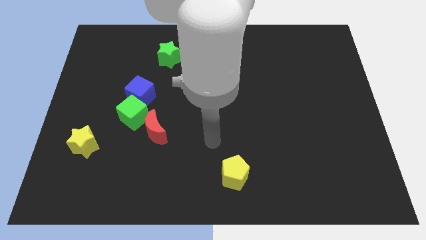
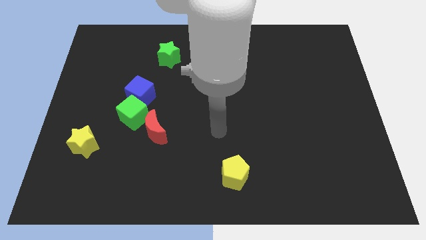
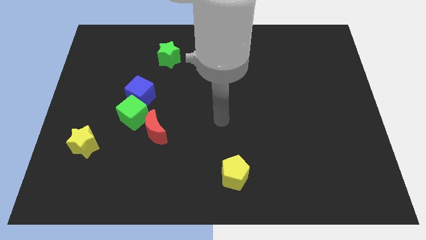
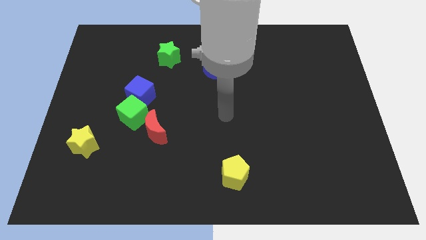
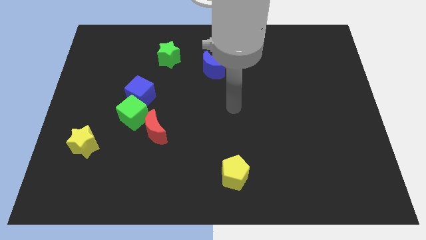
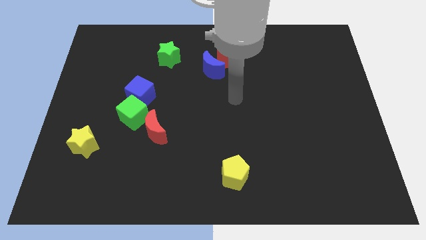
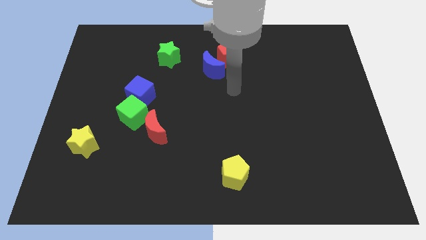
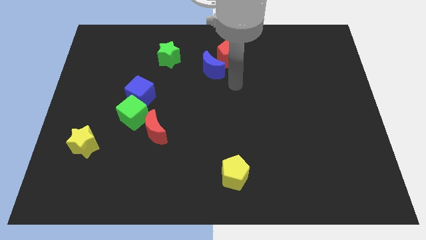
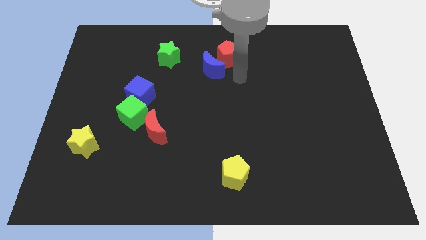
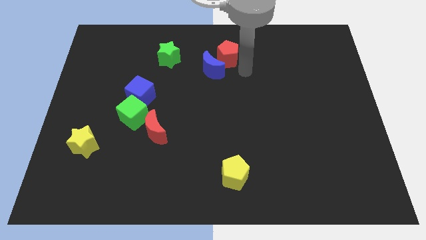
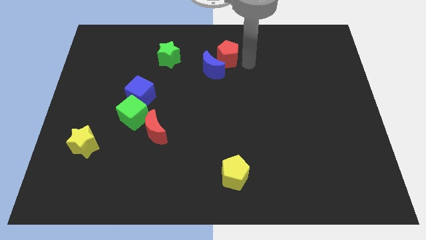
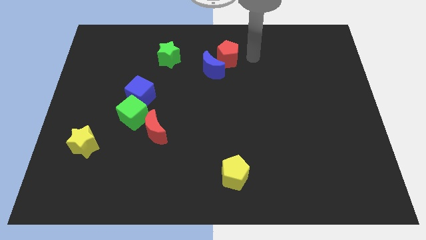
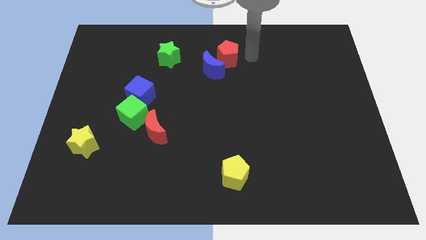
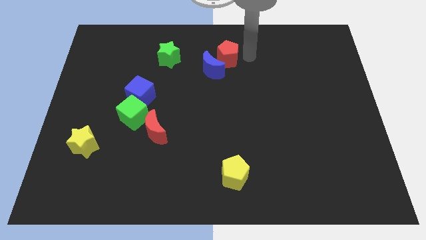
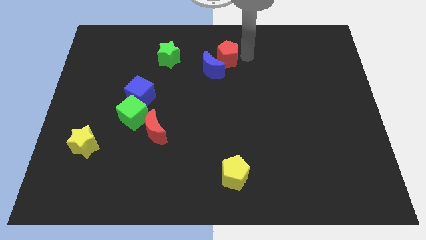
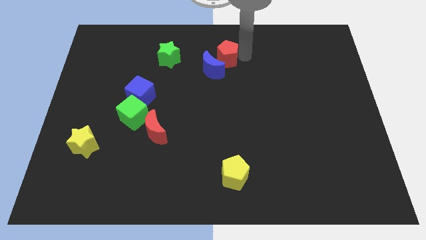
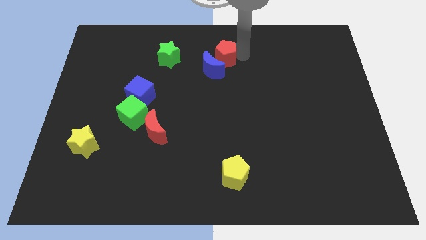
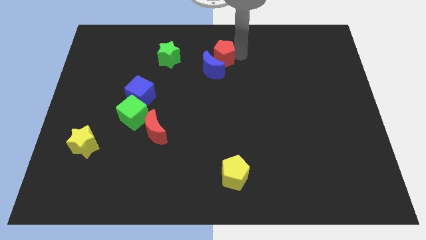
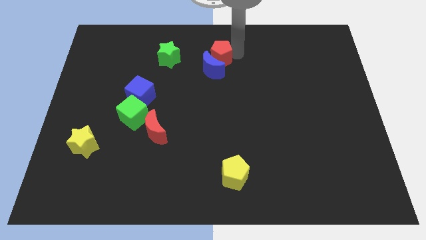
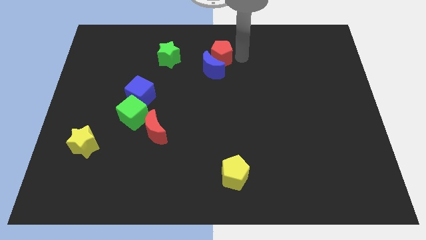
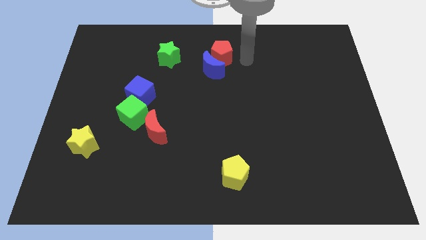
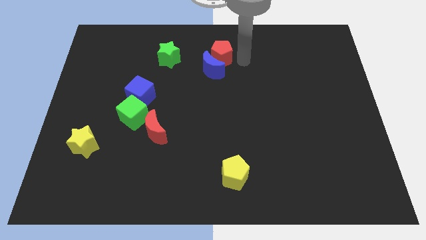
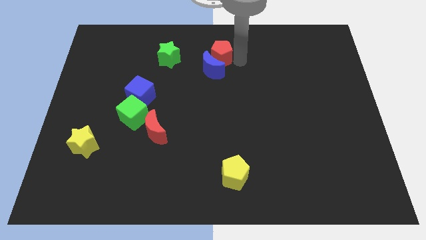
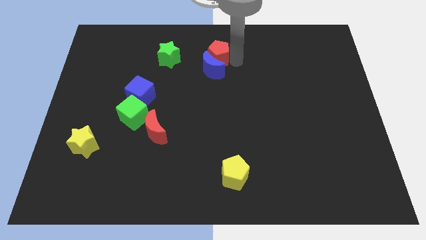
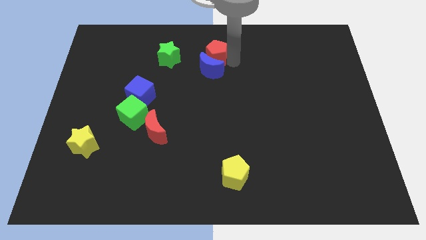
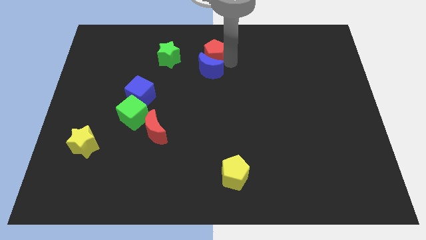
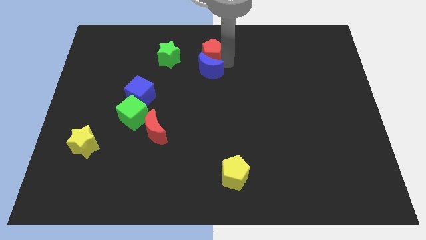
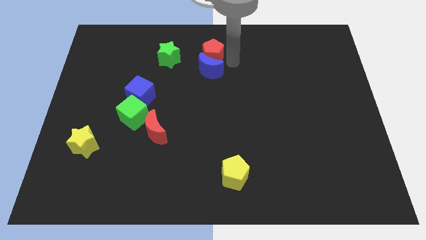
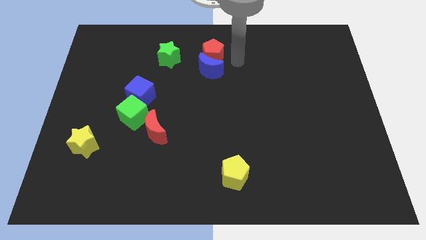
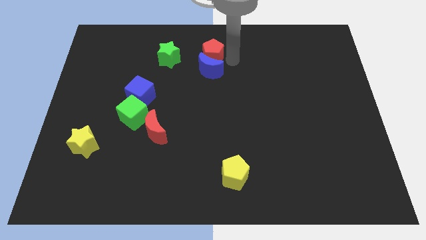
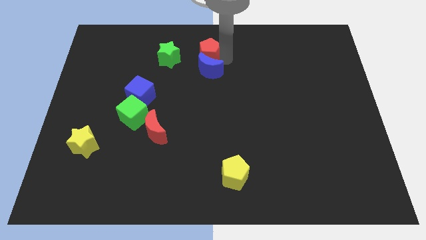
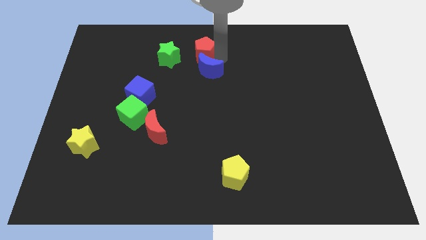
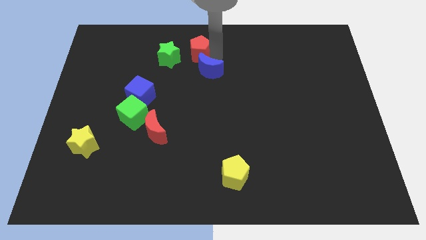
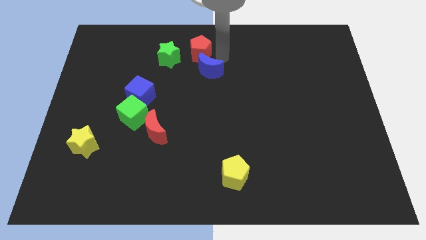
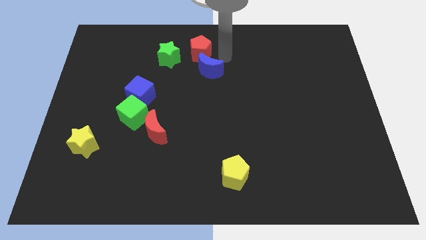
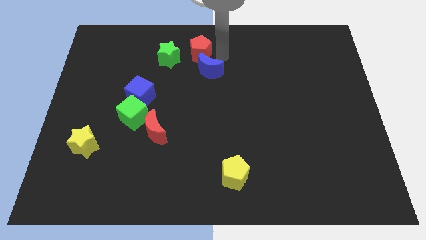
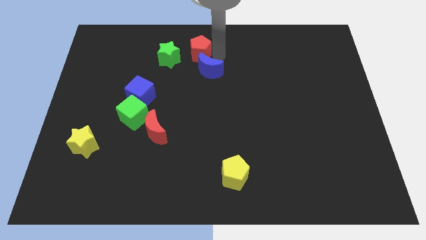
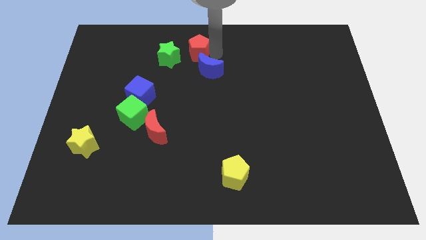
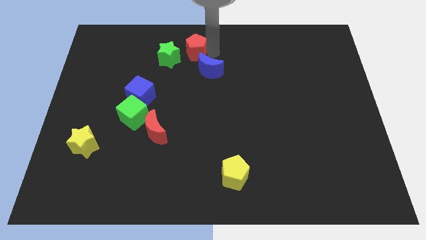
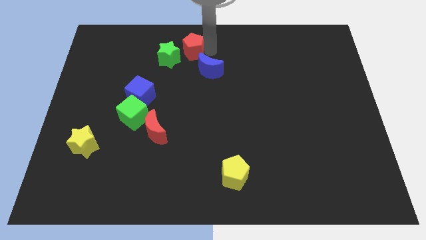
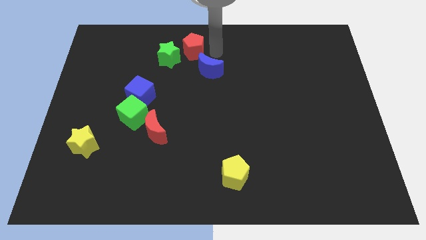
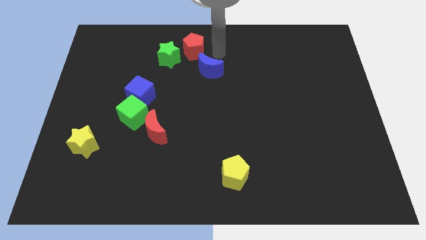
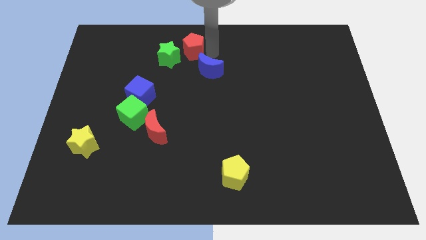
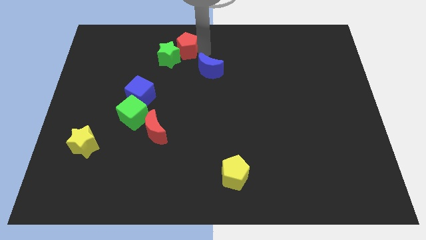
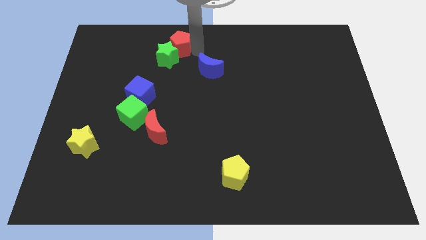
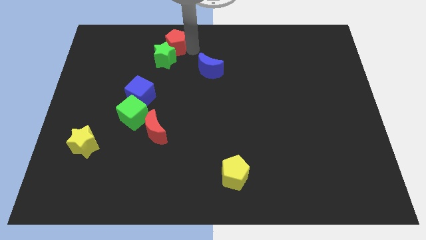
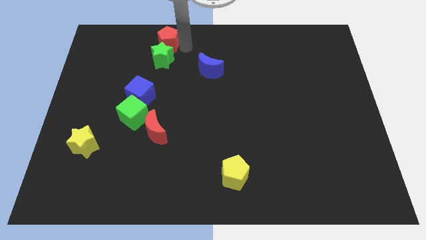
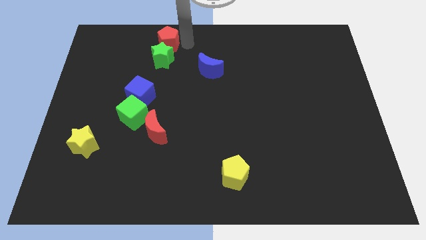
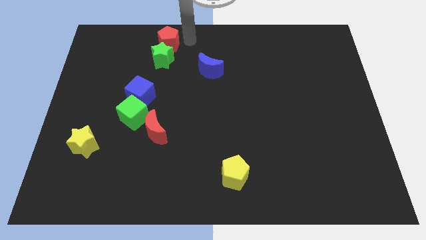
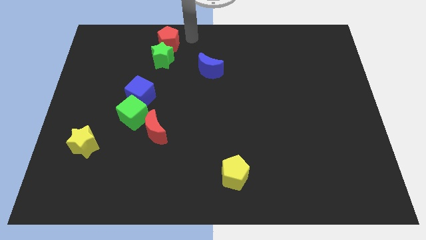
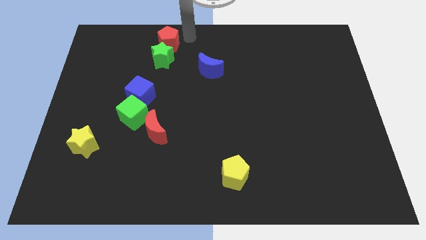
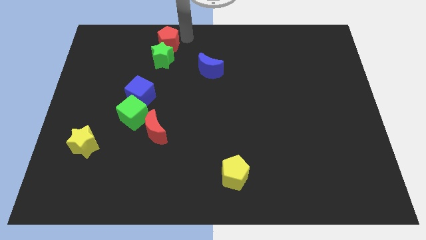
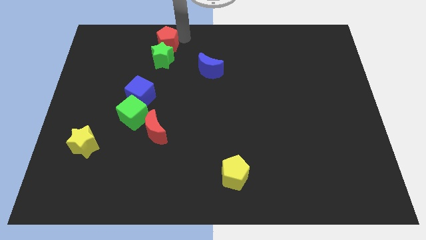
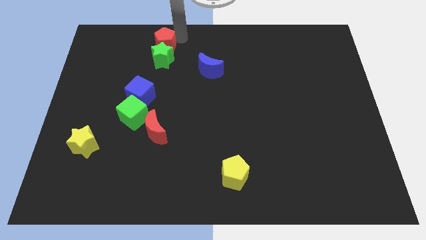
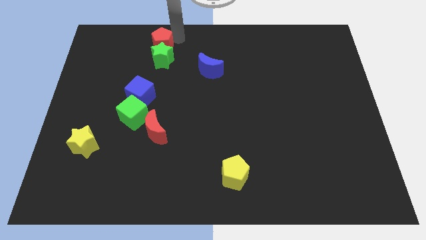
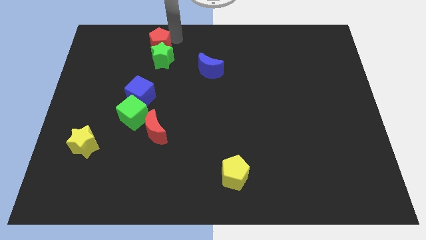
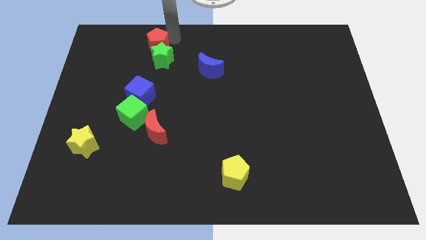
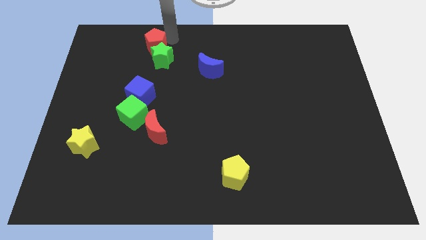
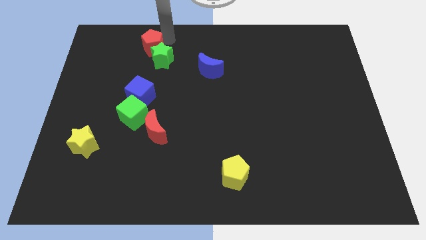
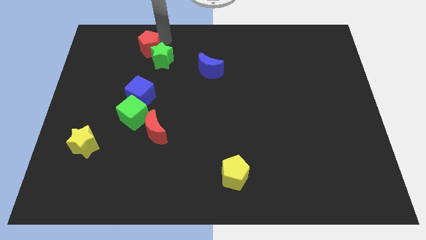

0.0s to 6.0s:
move the red pentagon left

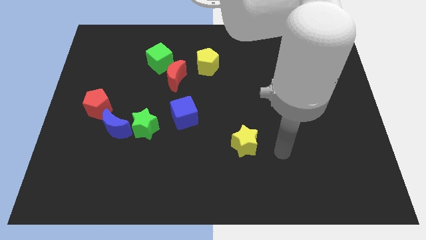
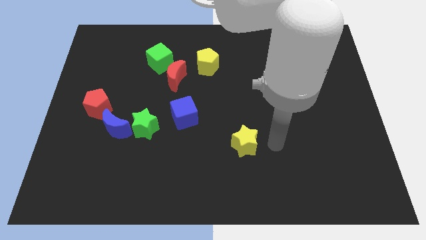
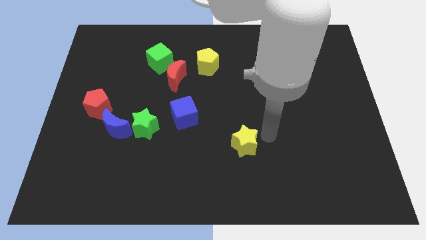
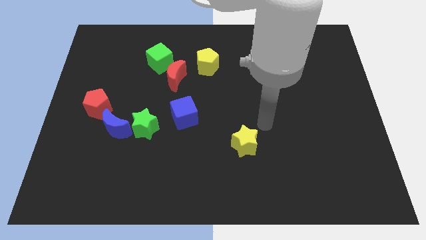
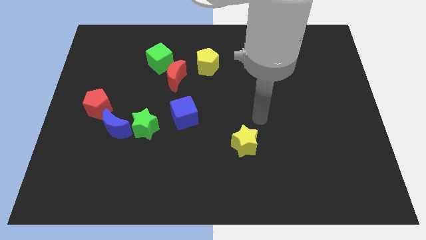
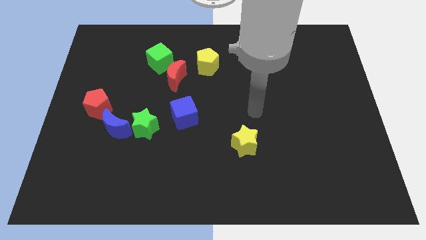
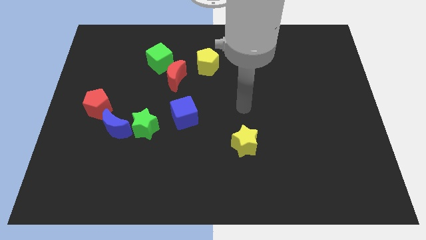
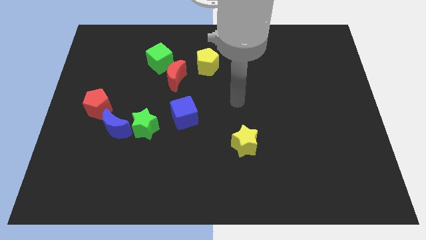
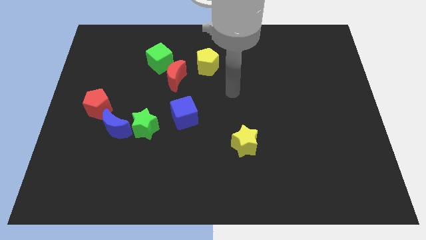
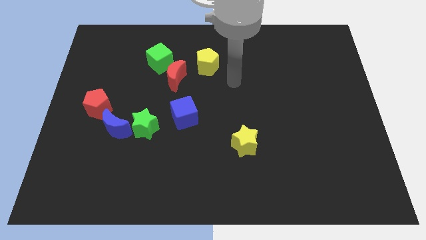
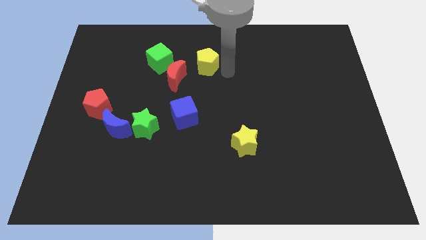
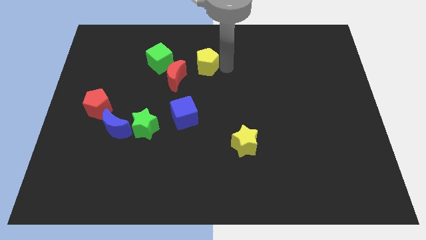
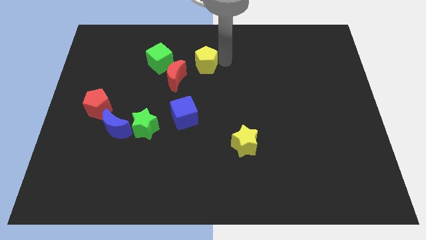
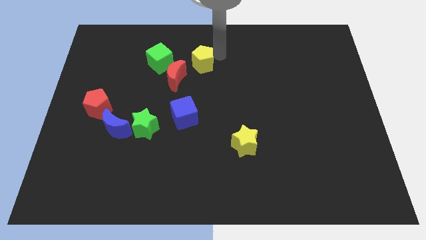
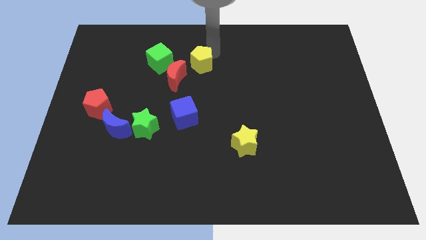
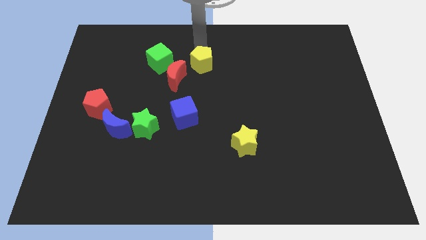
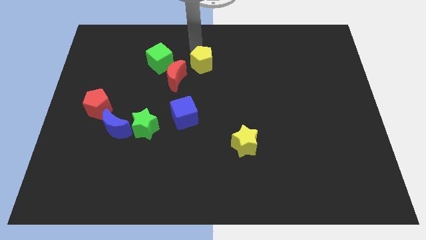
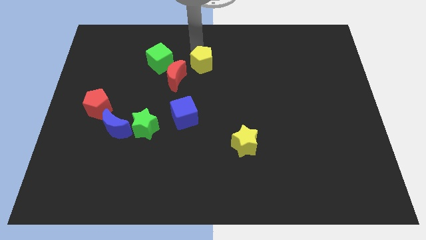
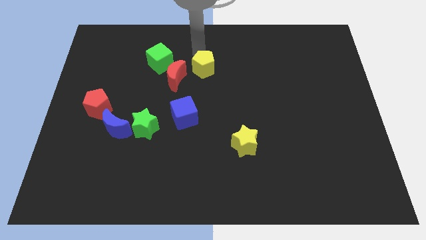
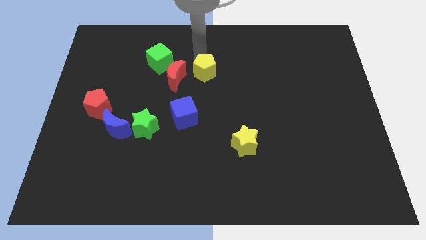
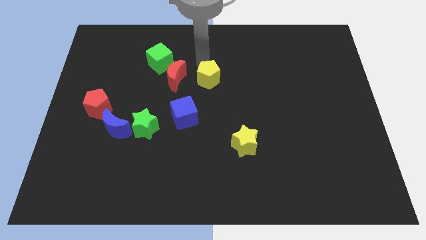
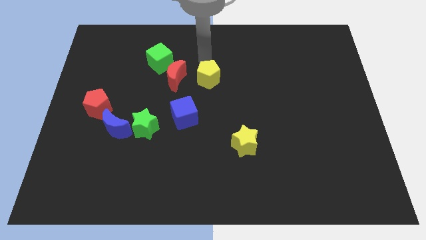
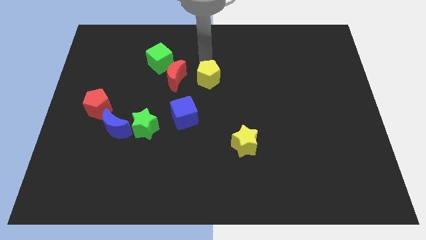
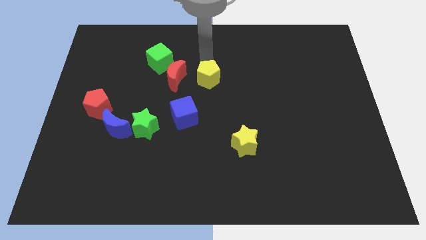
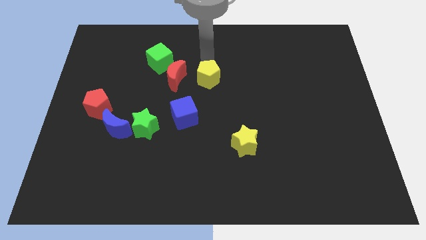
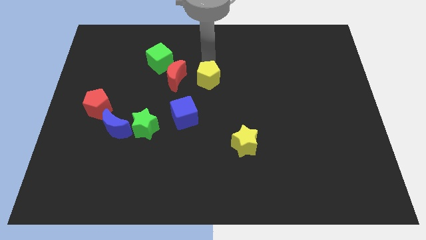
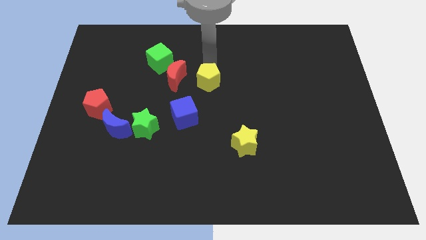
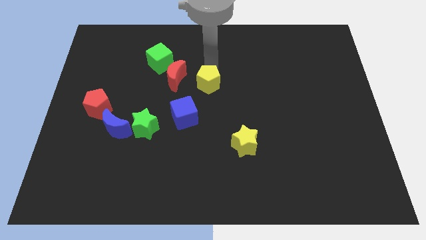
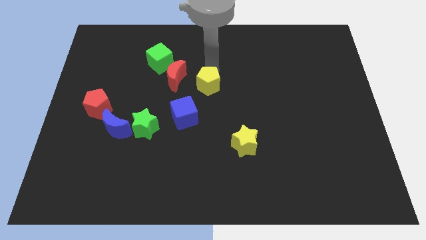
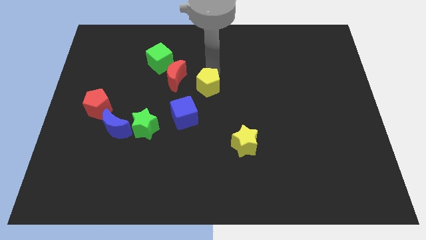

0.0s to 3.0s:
slide the yellow pentagon down a little bit
